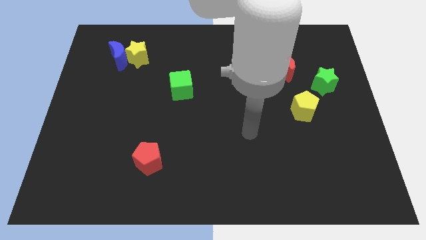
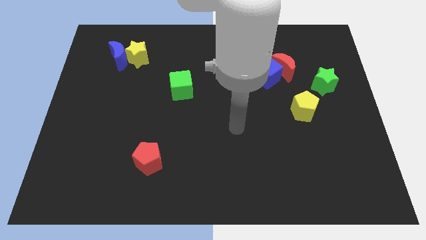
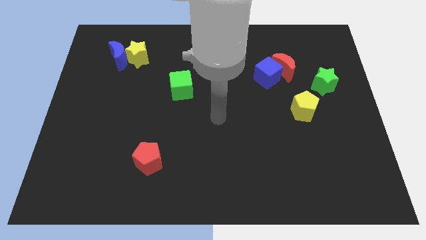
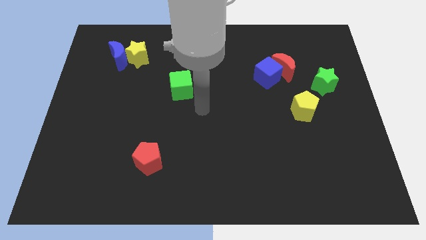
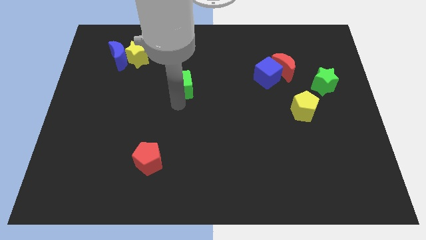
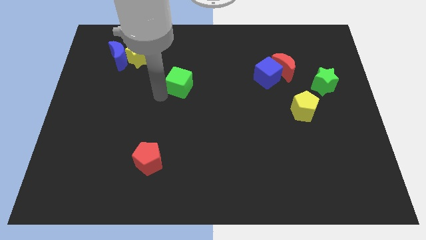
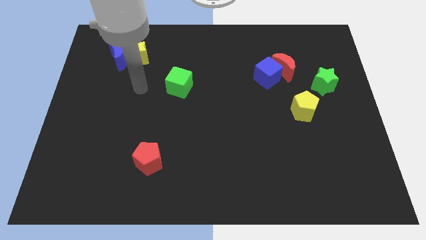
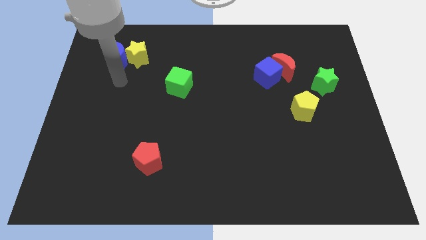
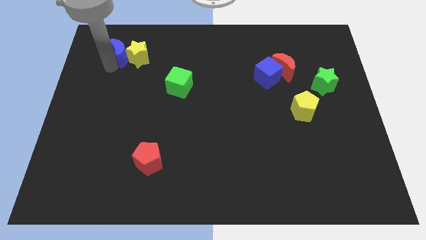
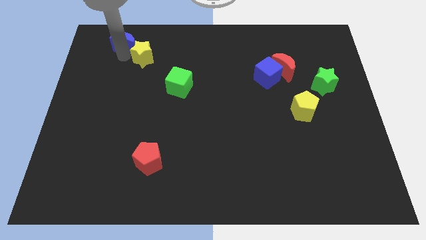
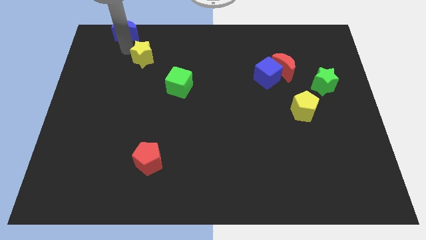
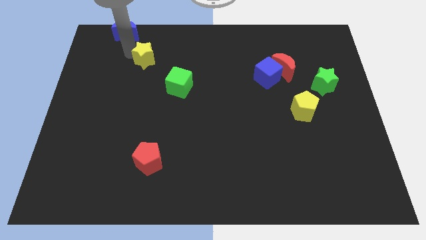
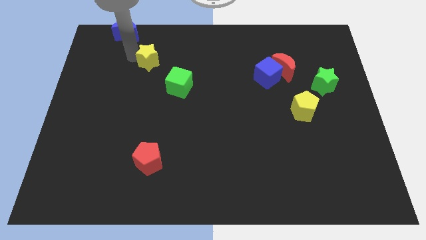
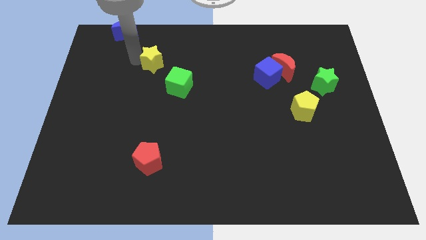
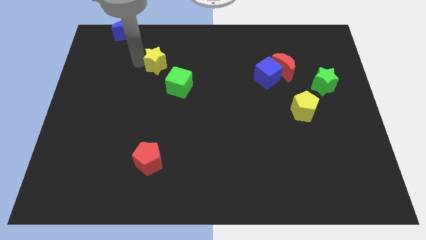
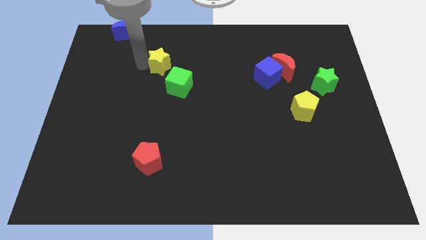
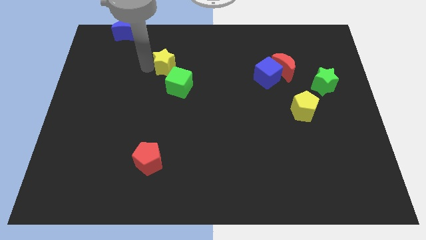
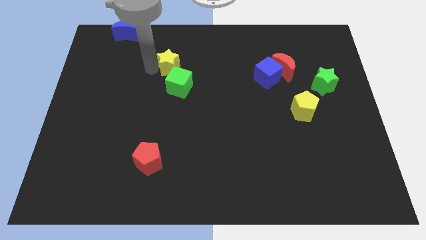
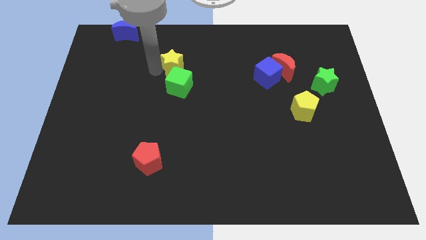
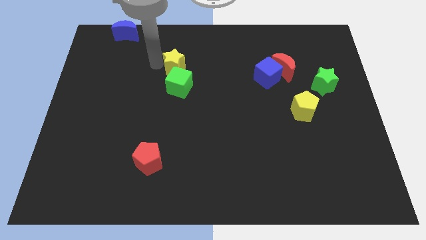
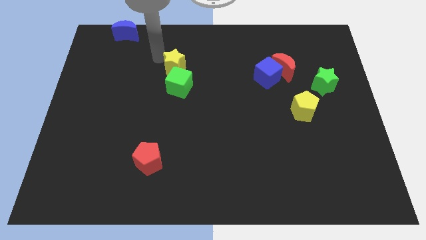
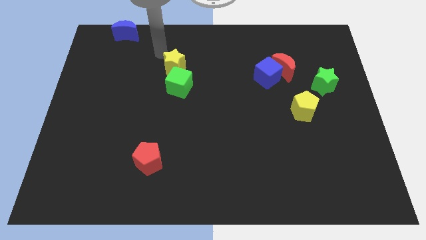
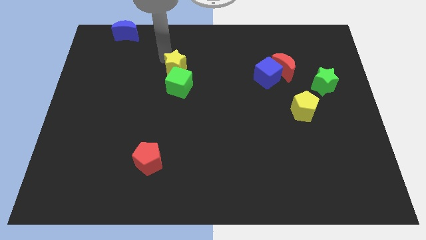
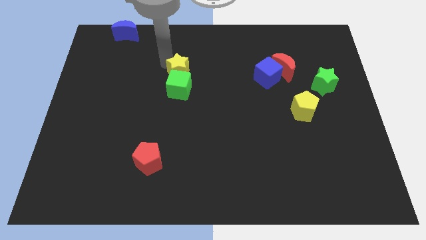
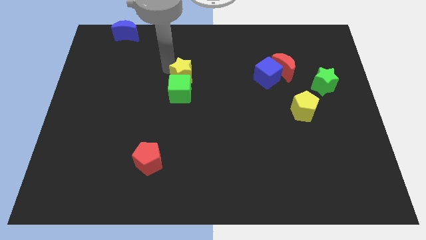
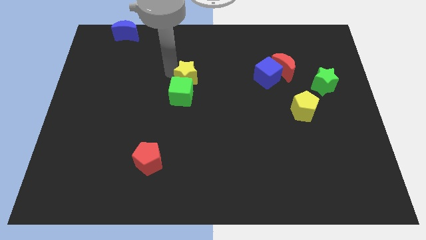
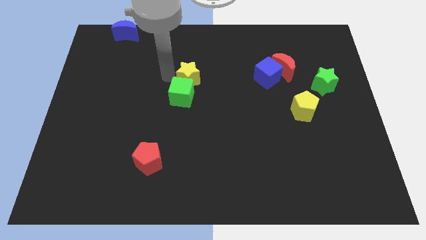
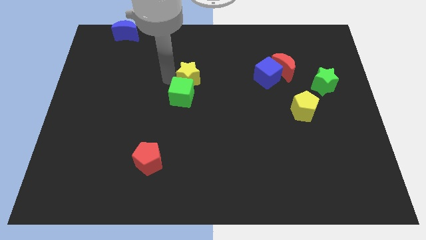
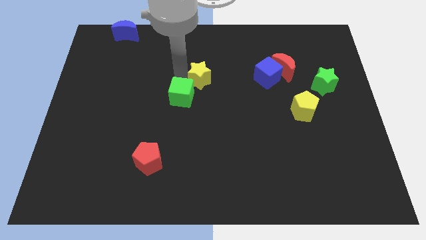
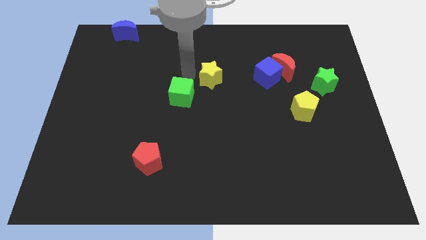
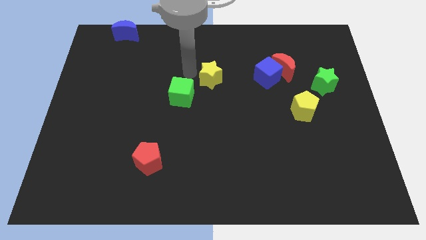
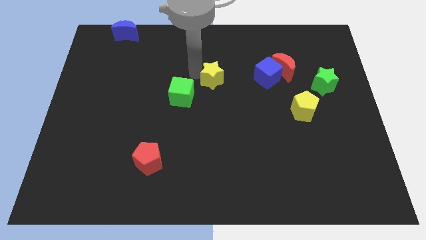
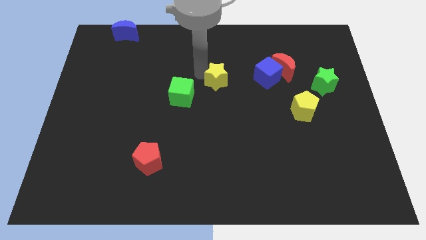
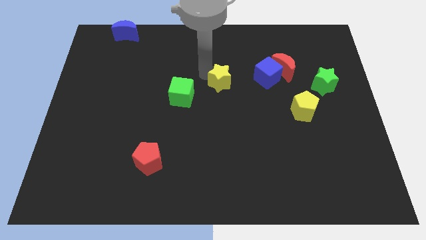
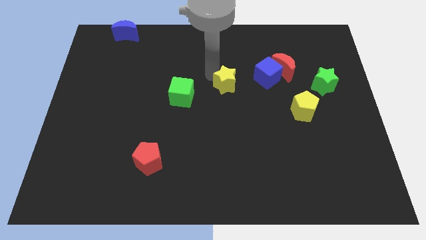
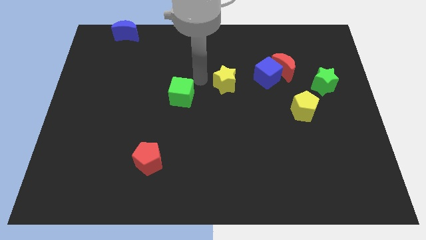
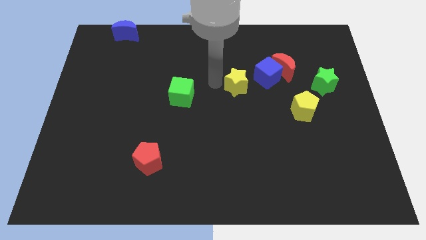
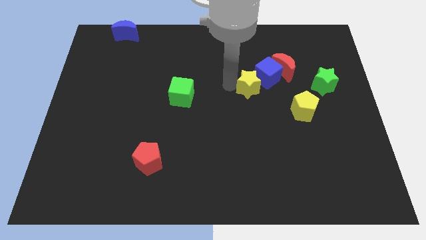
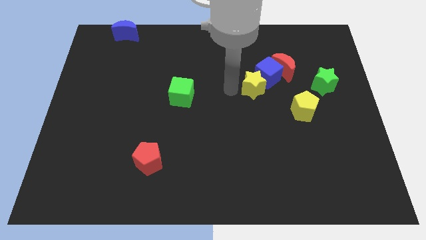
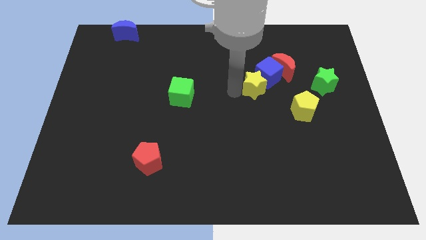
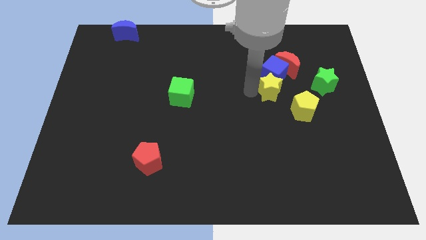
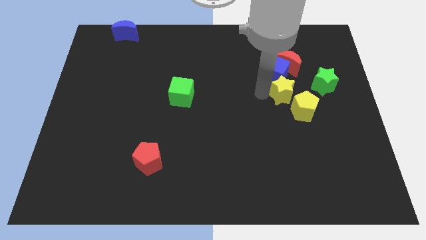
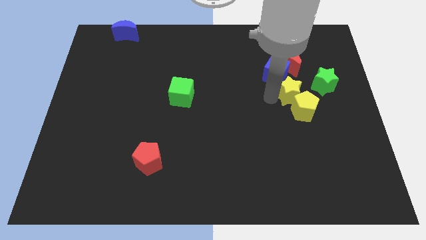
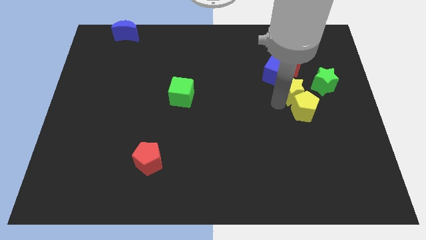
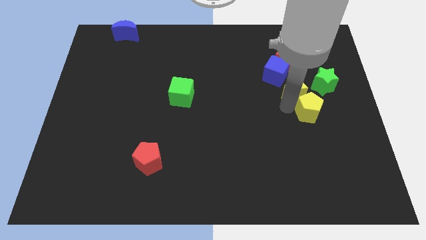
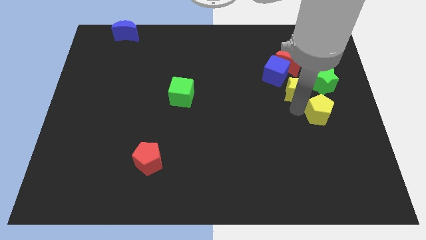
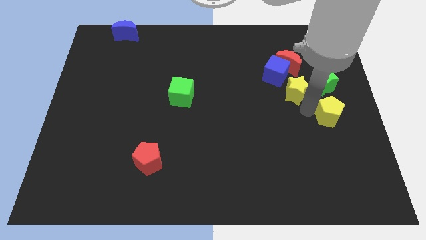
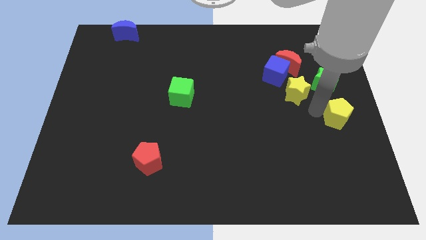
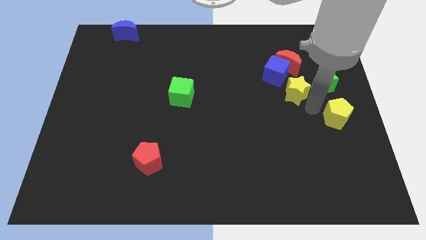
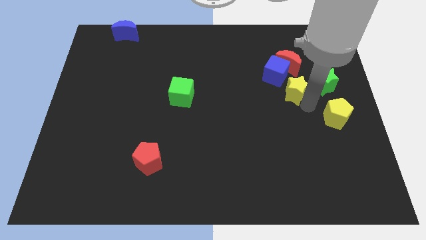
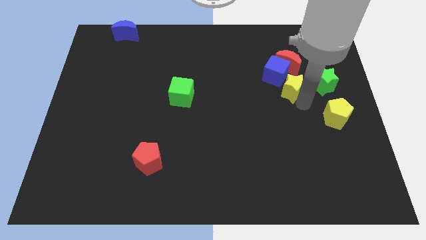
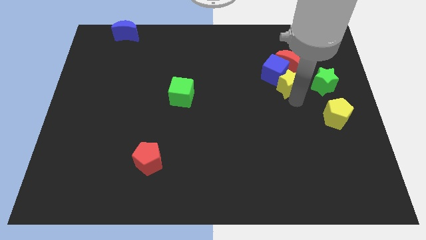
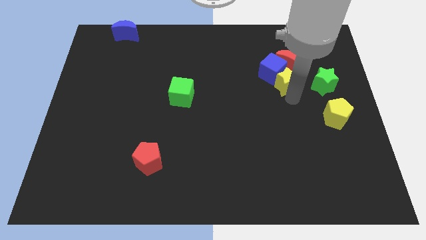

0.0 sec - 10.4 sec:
put the yellow star to the right side of the blue cube

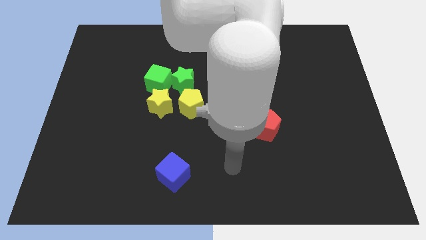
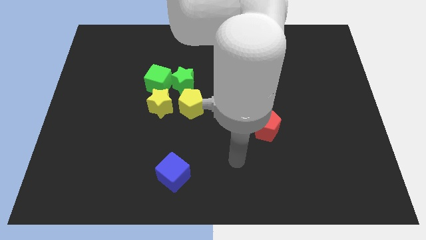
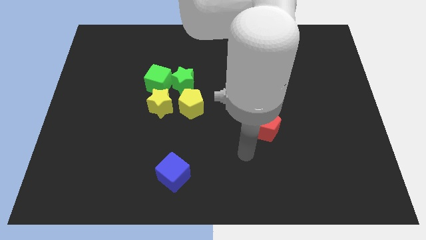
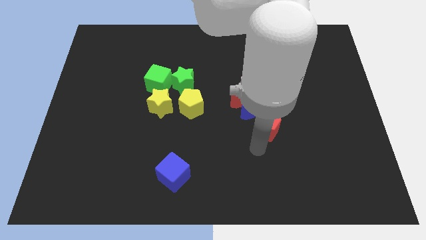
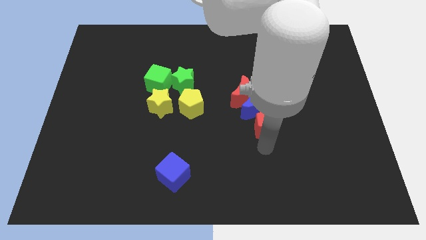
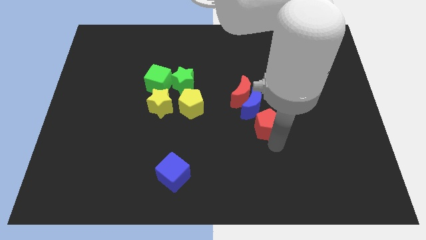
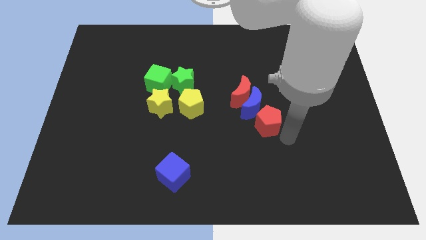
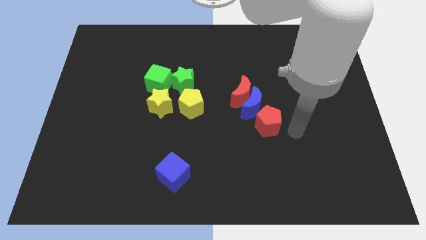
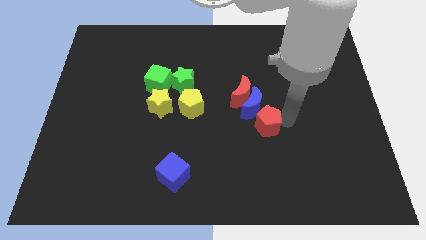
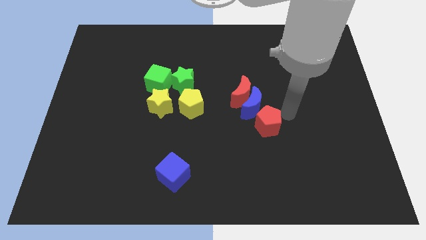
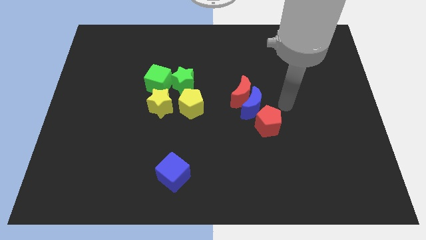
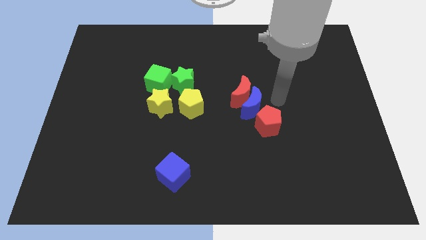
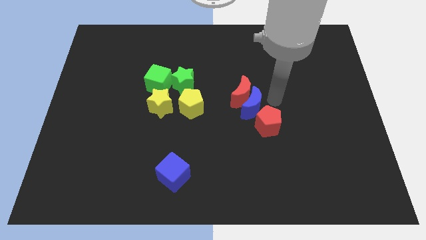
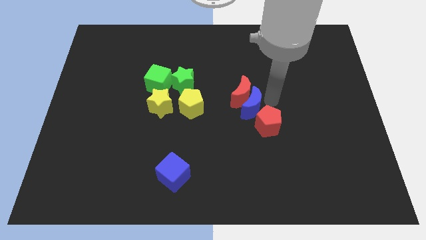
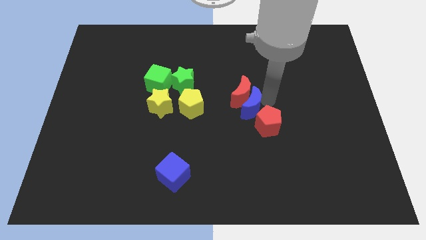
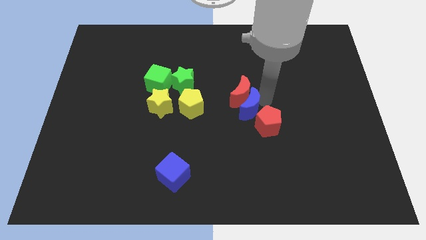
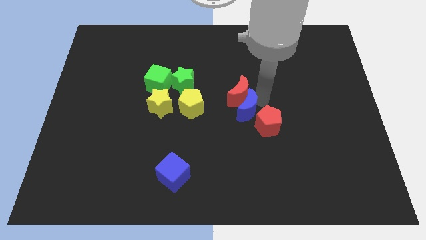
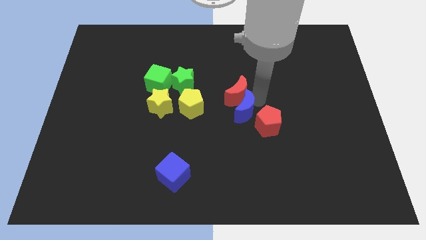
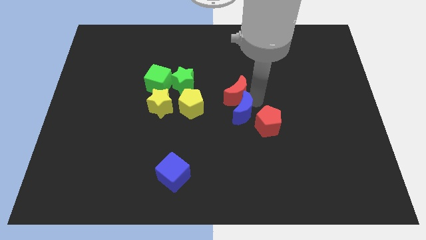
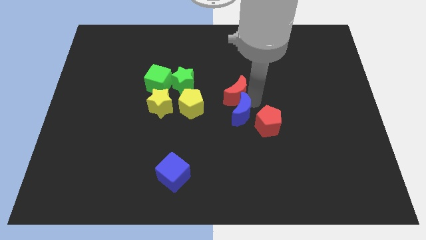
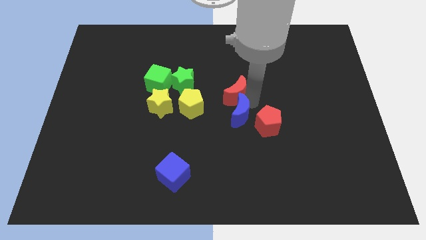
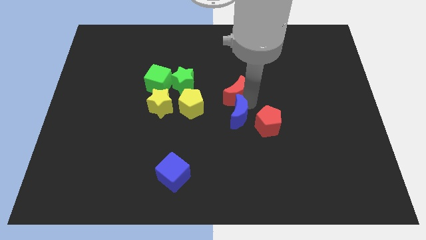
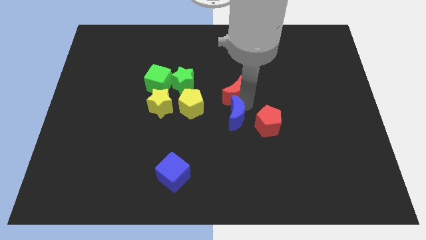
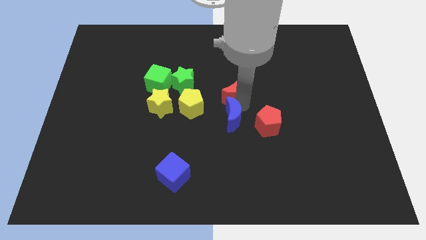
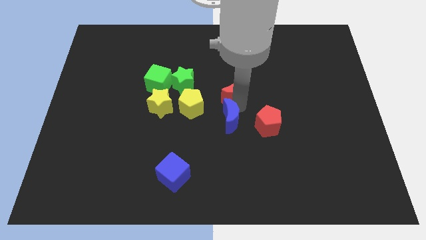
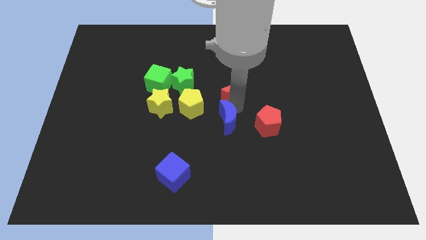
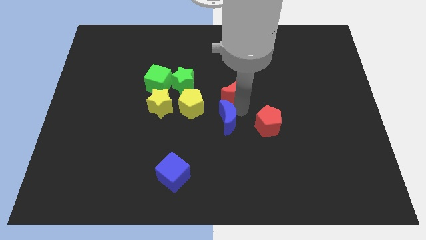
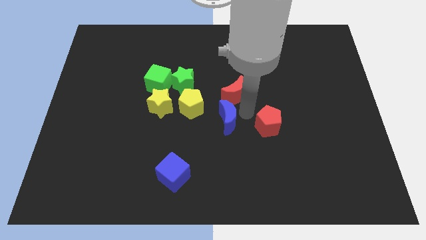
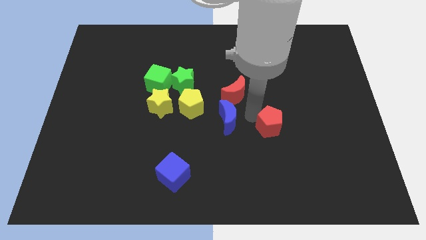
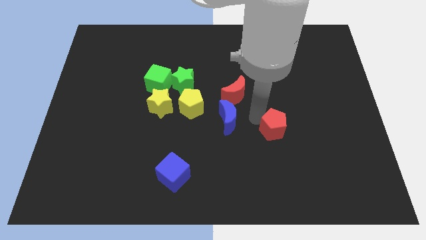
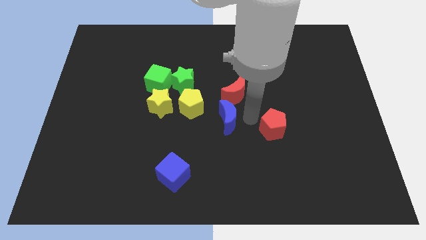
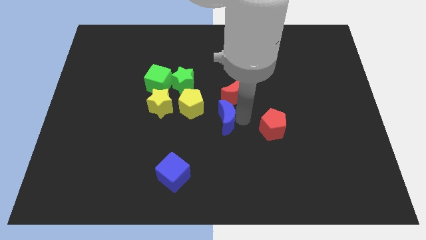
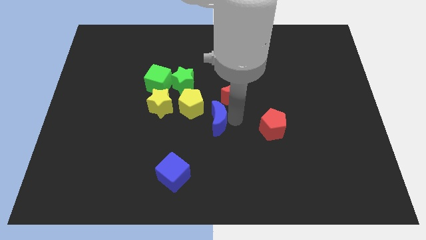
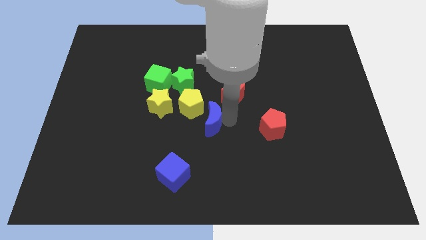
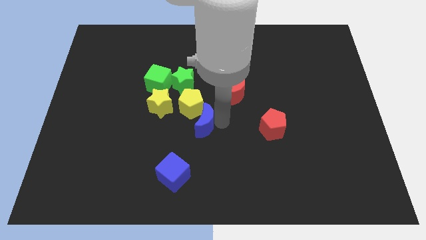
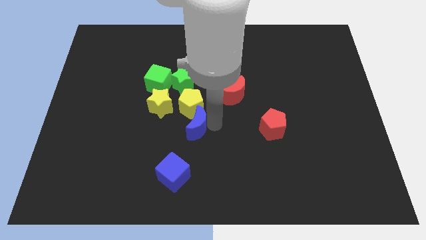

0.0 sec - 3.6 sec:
push the blue moon to the bottom side of the green star
